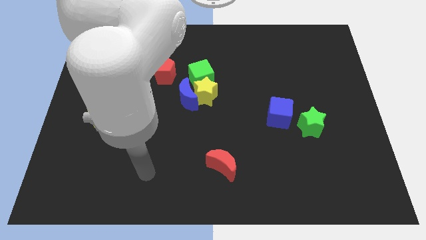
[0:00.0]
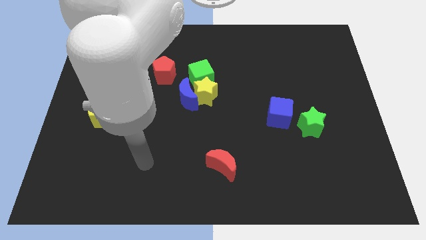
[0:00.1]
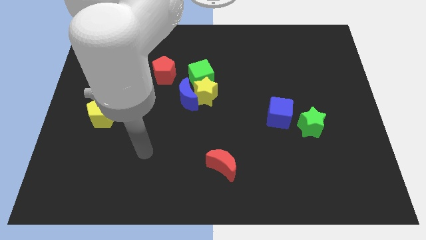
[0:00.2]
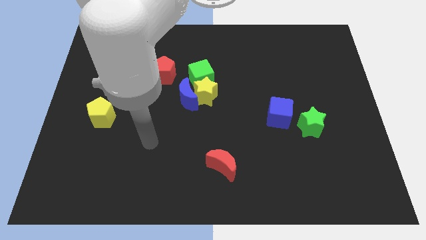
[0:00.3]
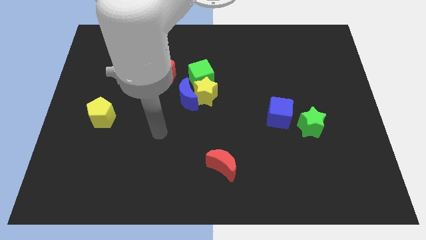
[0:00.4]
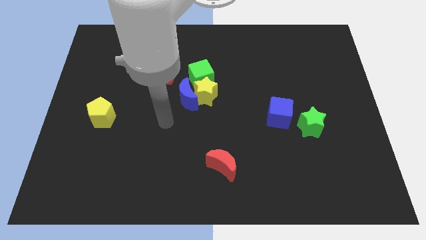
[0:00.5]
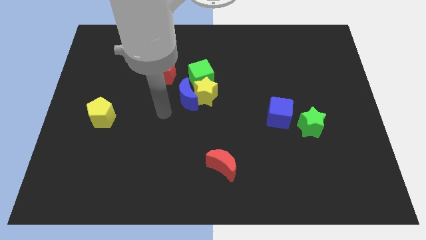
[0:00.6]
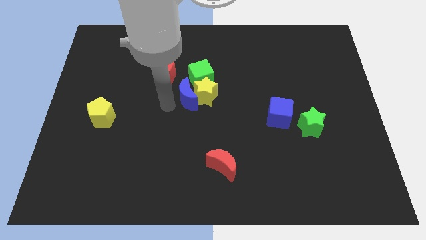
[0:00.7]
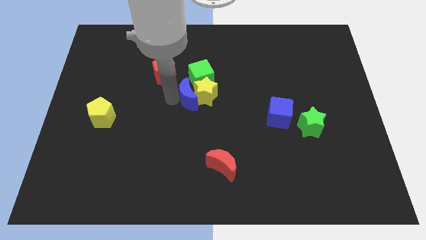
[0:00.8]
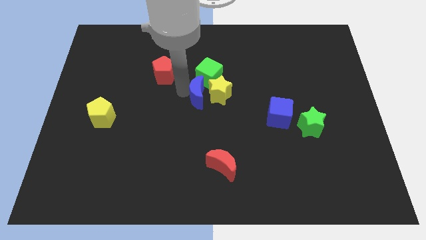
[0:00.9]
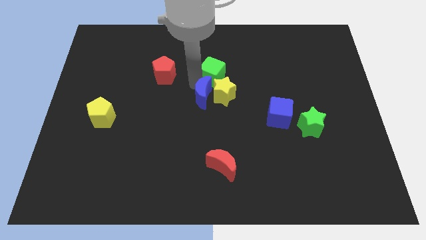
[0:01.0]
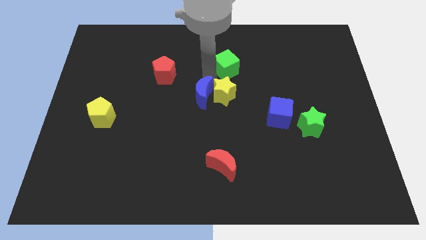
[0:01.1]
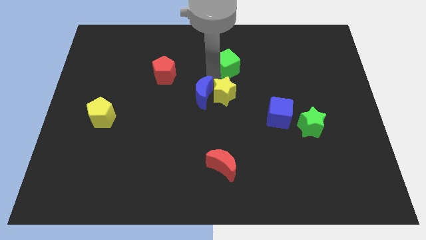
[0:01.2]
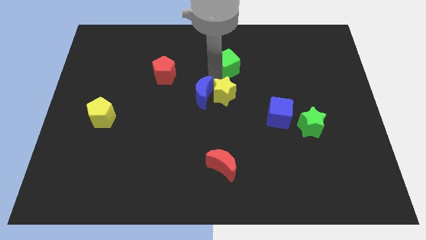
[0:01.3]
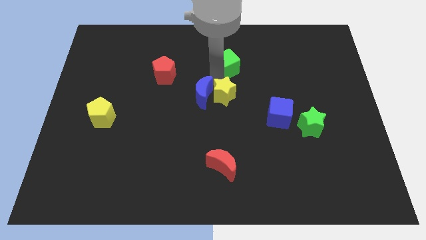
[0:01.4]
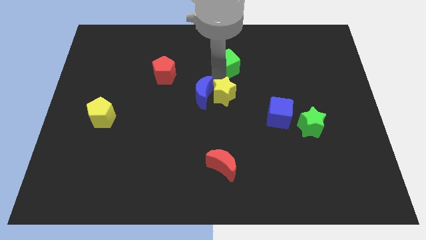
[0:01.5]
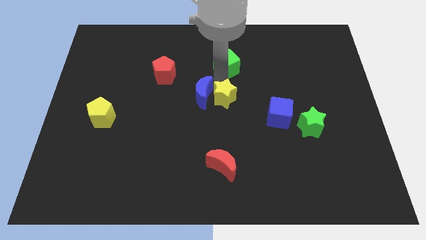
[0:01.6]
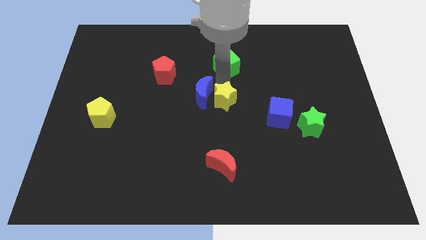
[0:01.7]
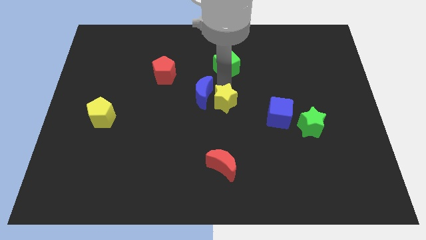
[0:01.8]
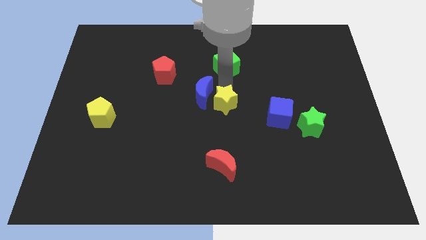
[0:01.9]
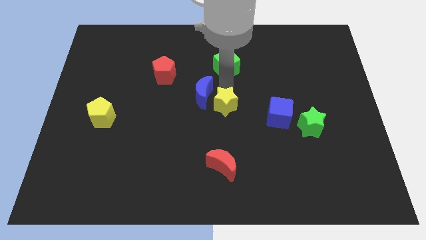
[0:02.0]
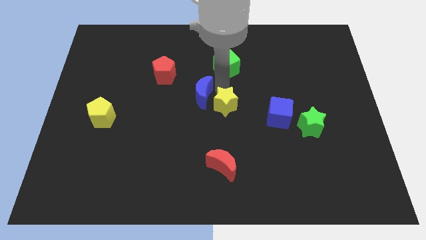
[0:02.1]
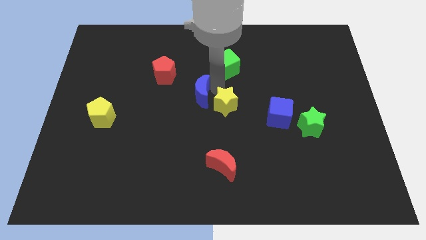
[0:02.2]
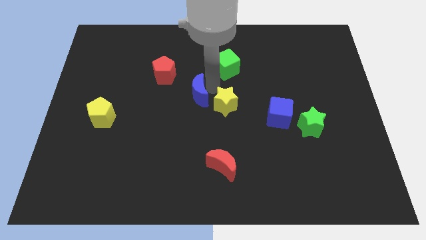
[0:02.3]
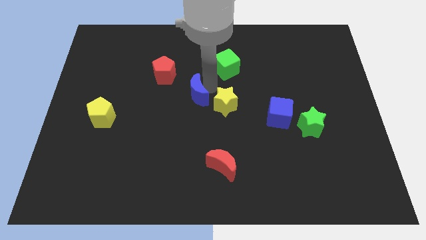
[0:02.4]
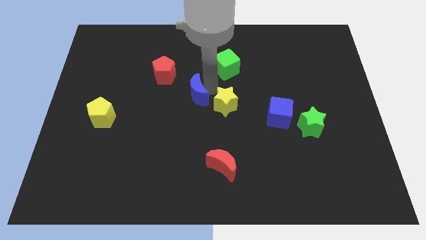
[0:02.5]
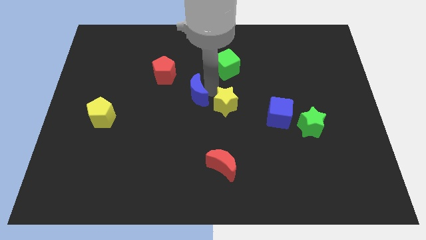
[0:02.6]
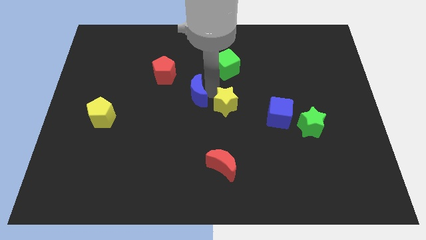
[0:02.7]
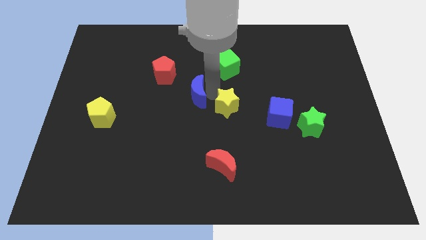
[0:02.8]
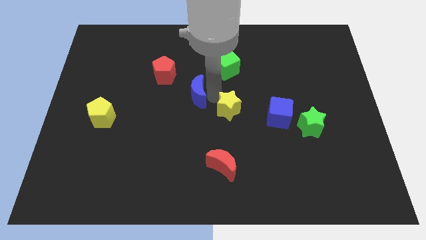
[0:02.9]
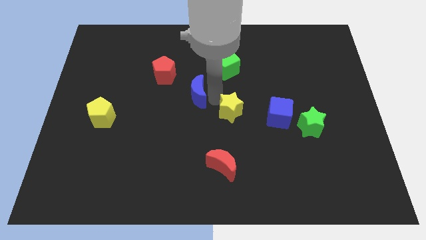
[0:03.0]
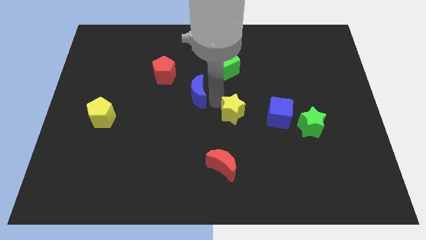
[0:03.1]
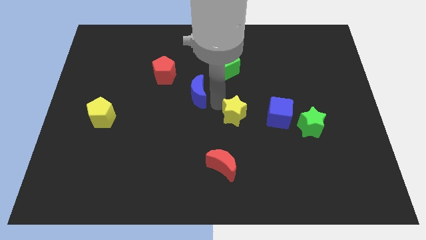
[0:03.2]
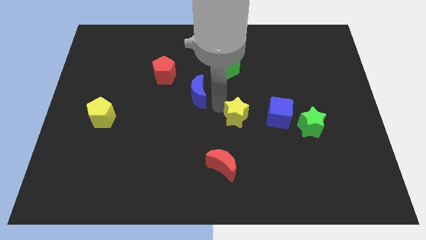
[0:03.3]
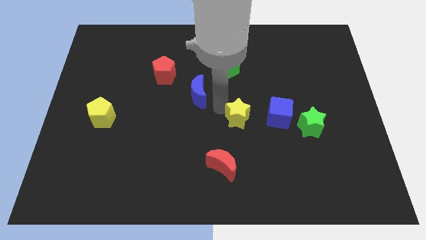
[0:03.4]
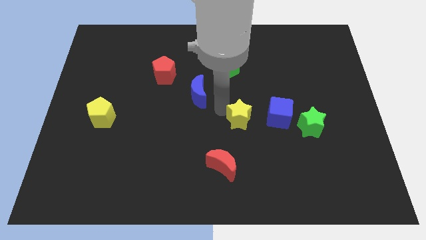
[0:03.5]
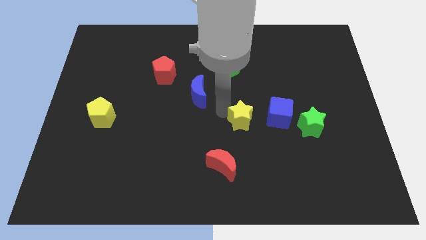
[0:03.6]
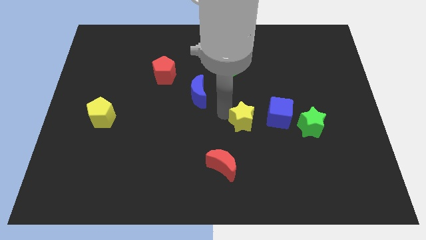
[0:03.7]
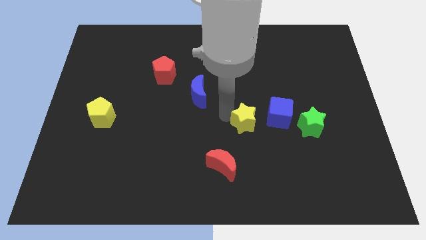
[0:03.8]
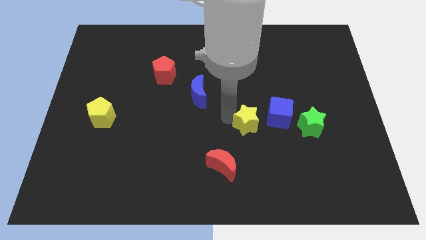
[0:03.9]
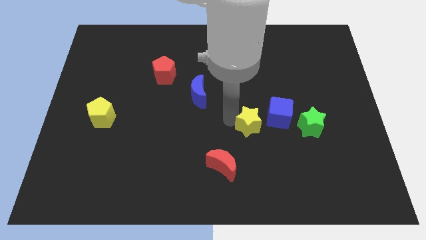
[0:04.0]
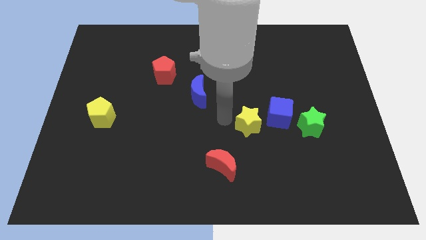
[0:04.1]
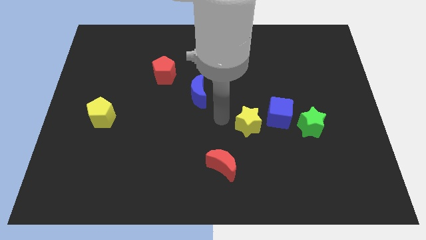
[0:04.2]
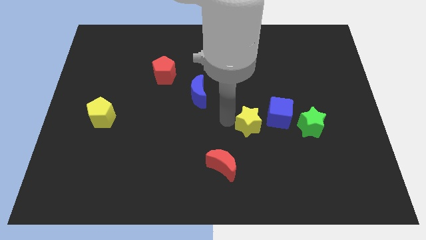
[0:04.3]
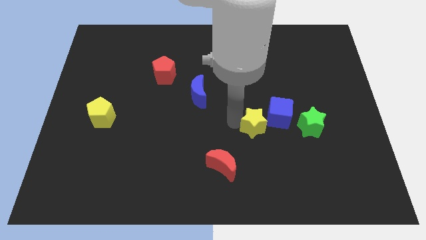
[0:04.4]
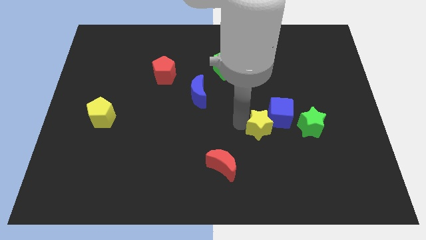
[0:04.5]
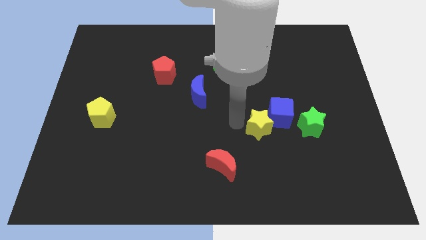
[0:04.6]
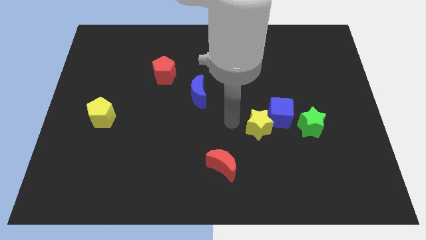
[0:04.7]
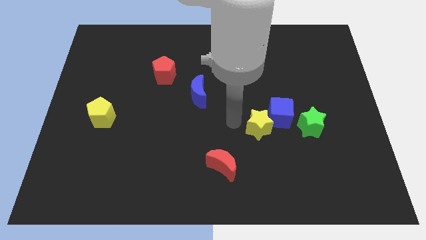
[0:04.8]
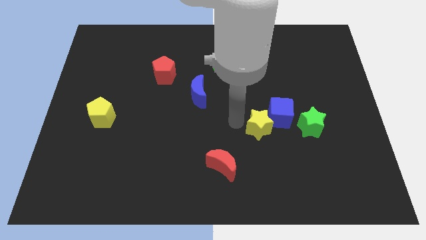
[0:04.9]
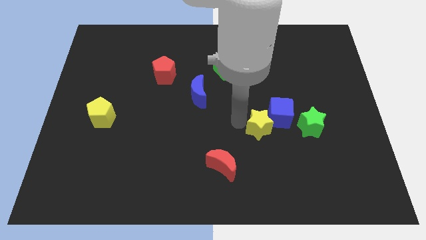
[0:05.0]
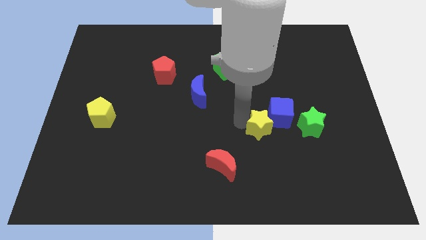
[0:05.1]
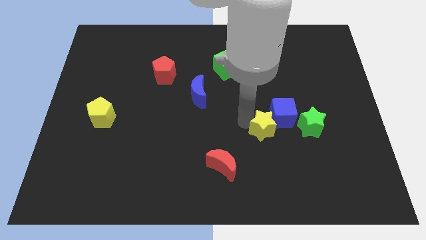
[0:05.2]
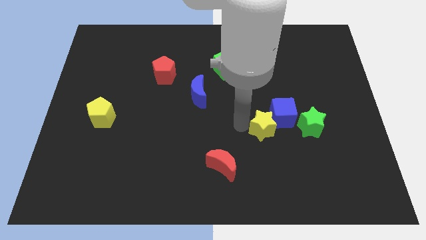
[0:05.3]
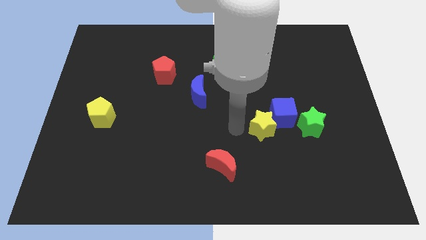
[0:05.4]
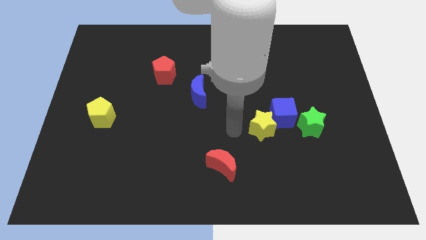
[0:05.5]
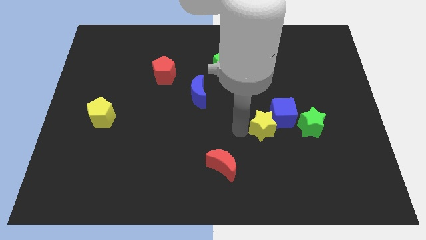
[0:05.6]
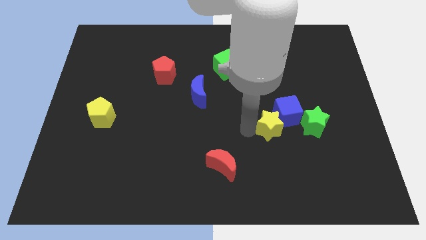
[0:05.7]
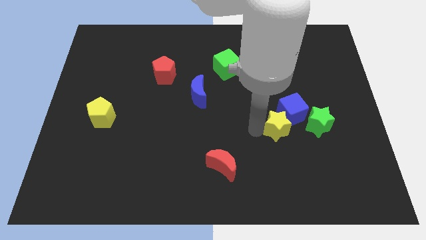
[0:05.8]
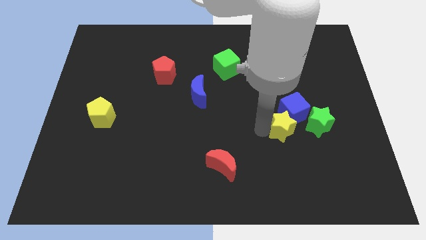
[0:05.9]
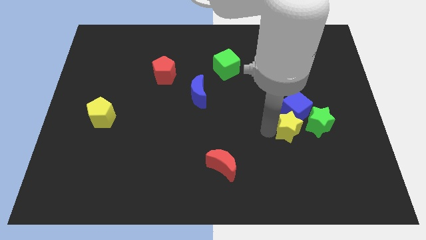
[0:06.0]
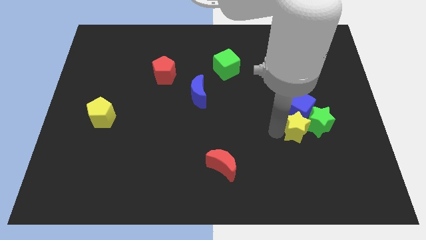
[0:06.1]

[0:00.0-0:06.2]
slide the yellow star to the green star
